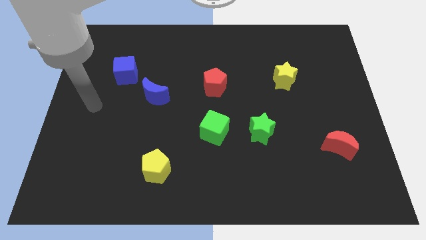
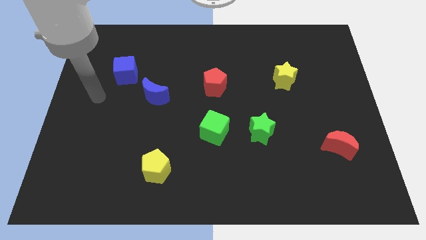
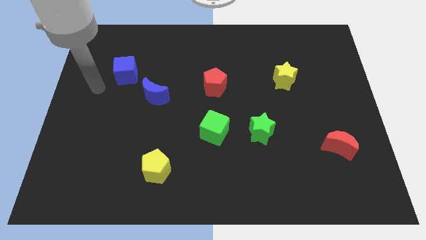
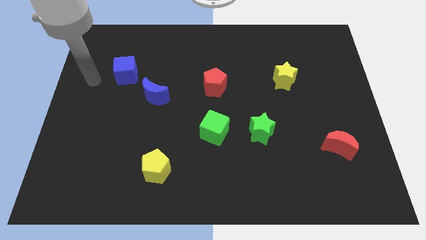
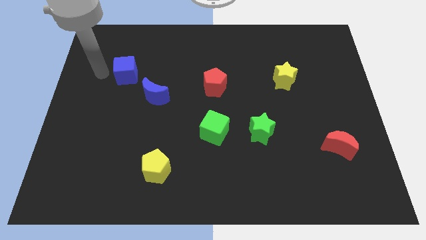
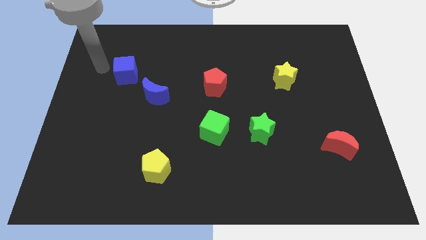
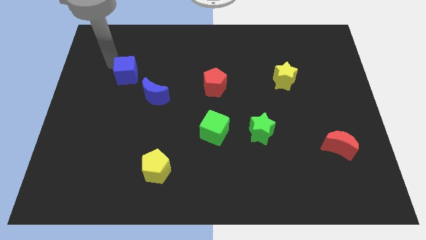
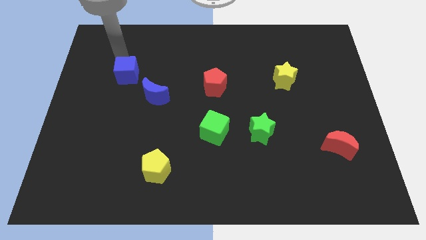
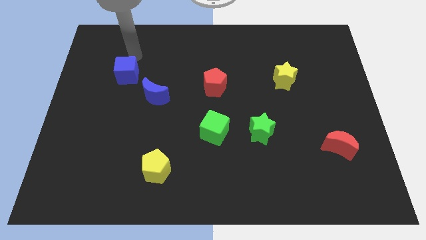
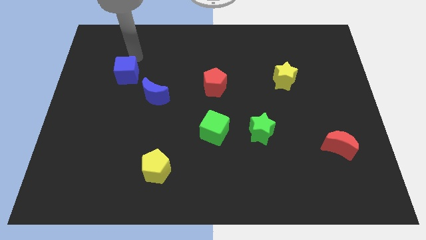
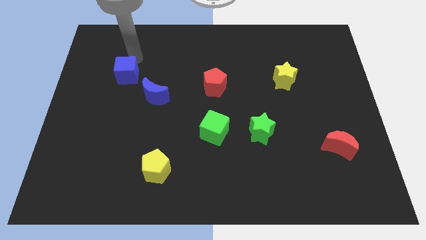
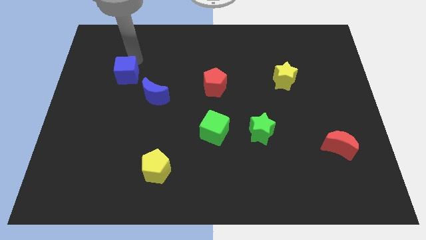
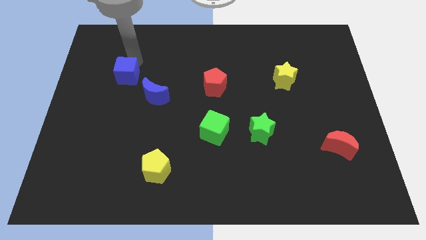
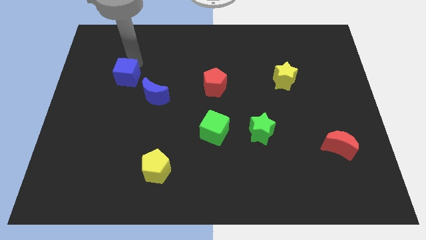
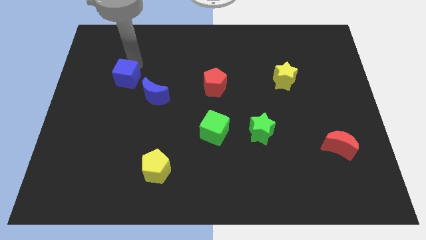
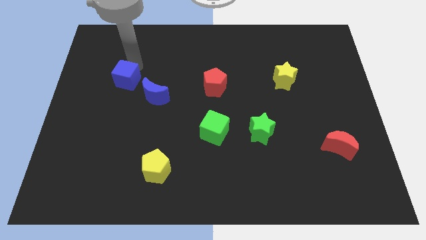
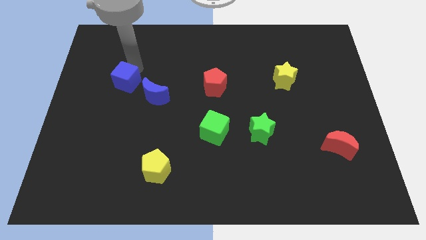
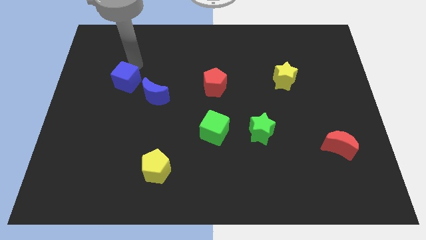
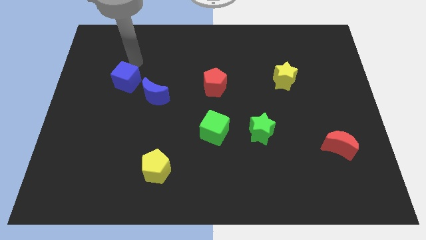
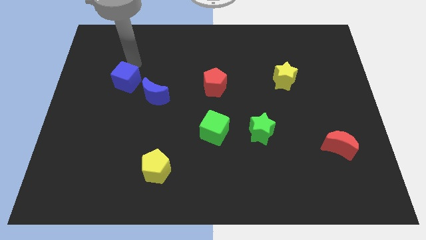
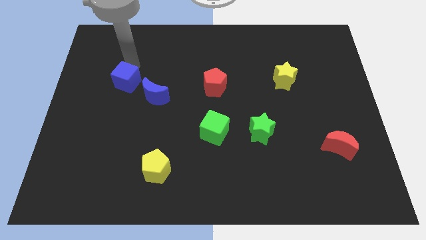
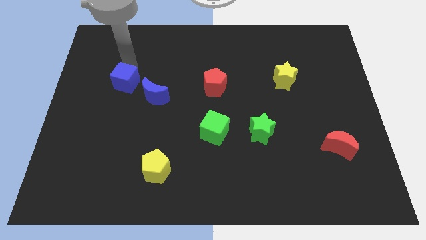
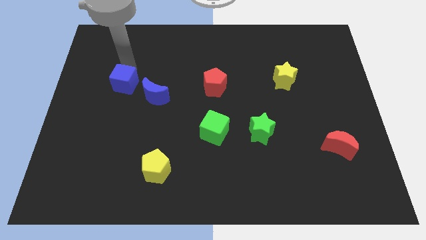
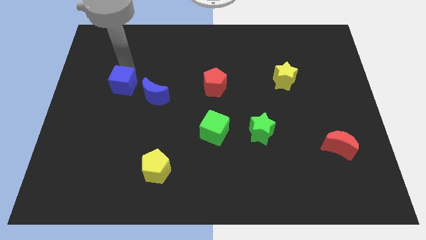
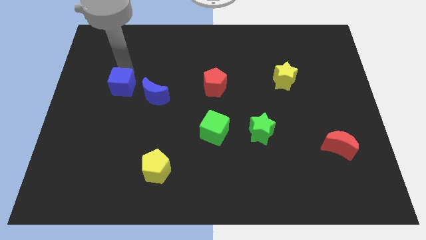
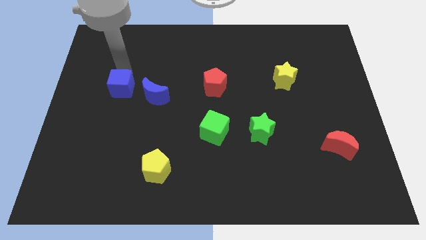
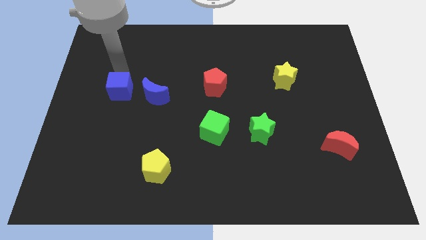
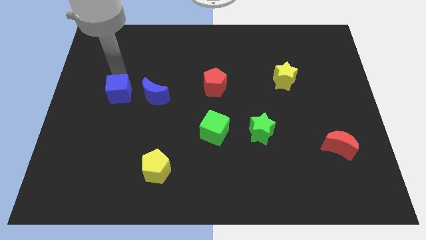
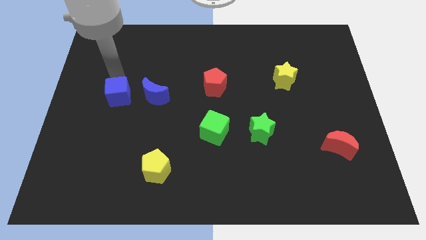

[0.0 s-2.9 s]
slightly push the blue cube downwards

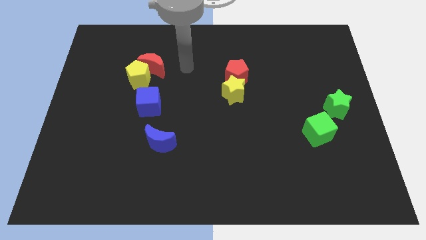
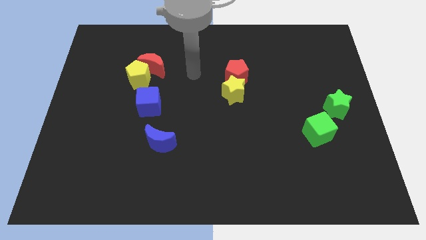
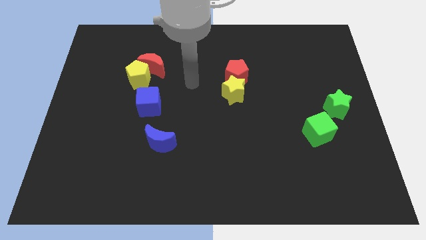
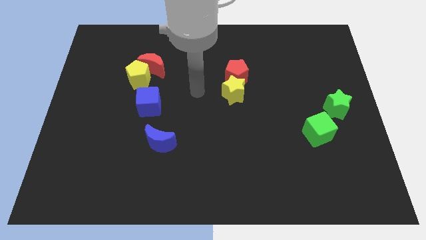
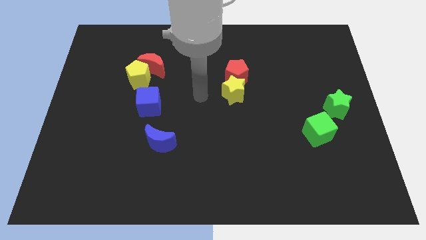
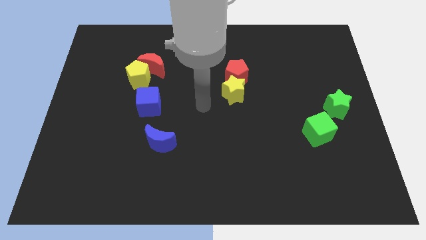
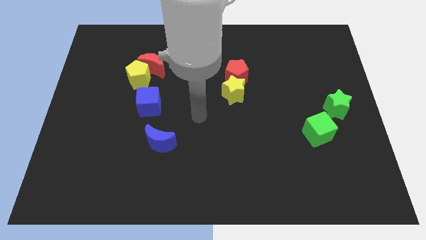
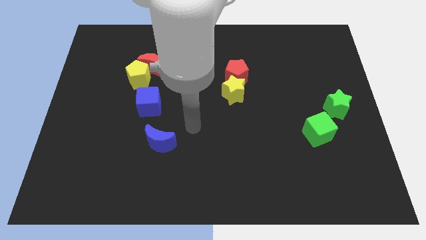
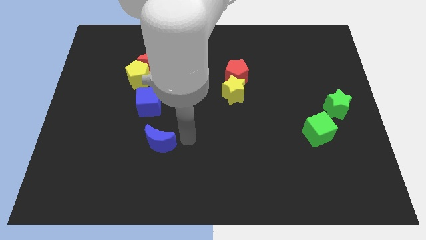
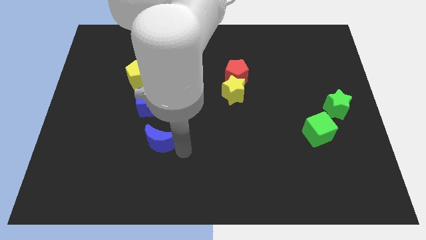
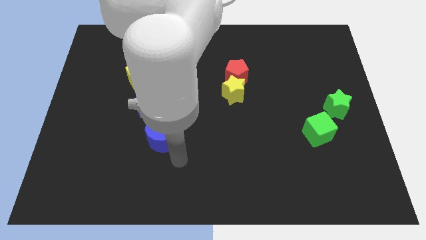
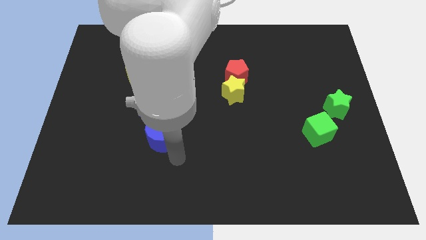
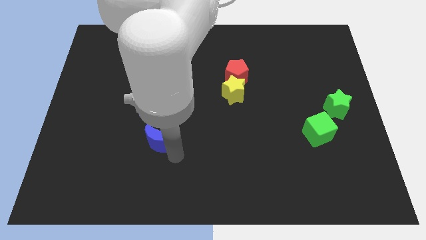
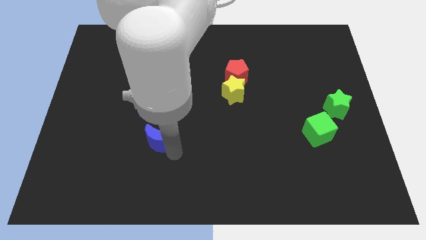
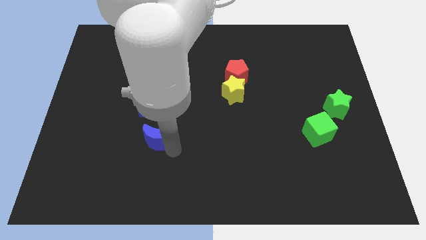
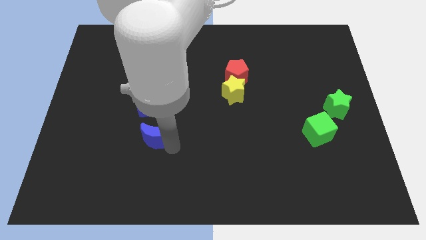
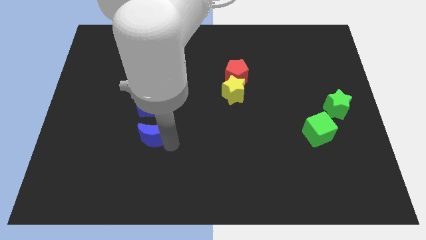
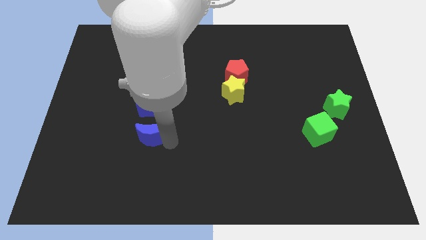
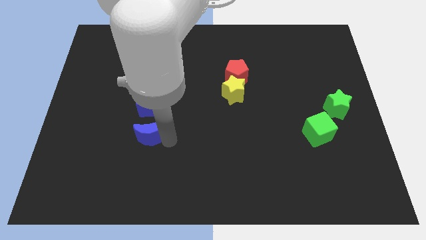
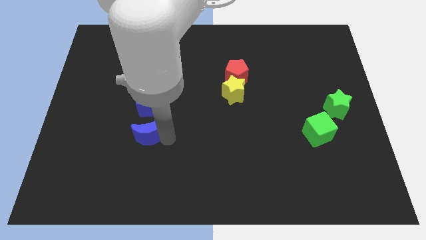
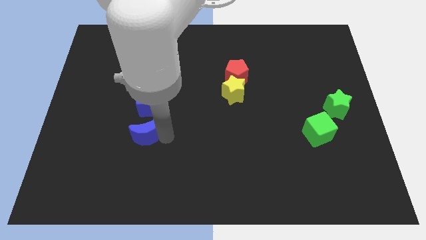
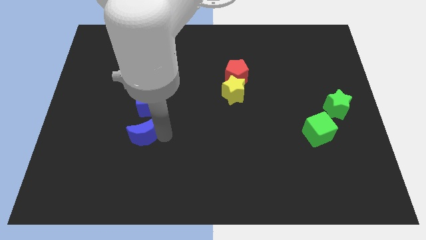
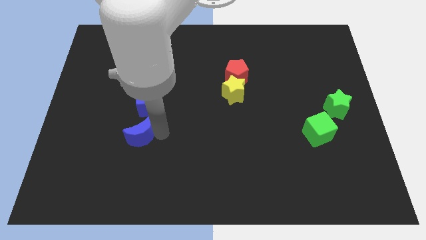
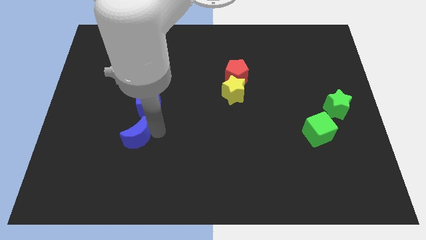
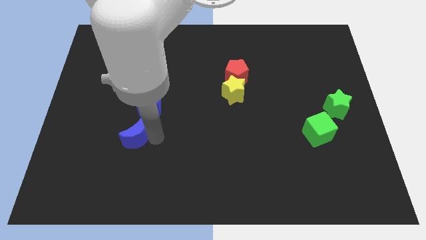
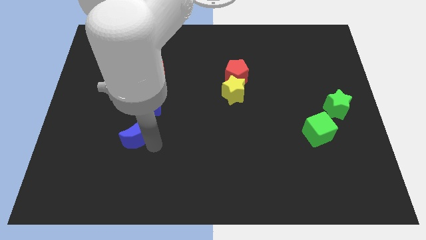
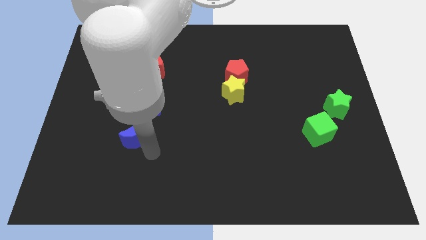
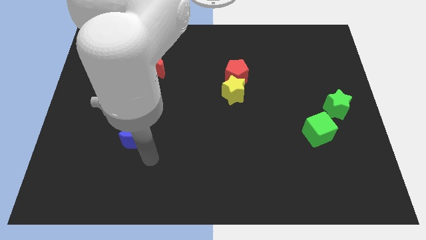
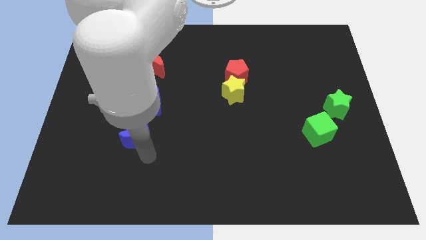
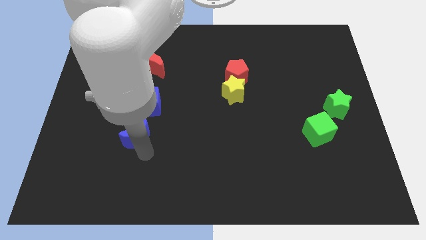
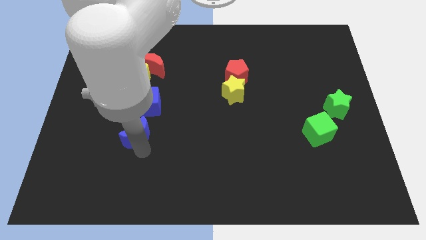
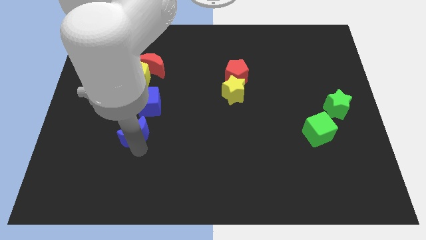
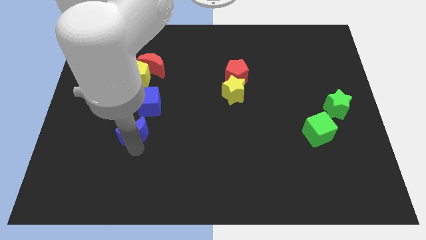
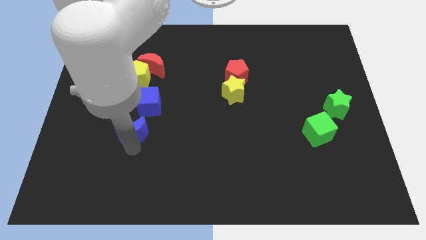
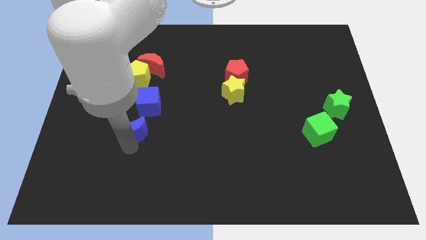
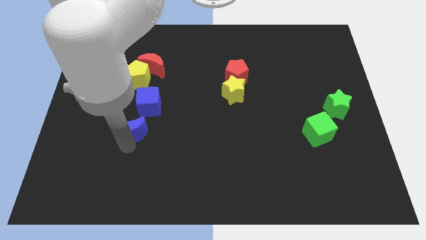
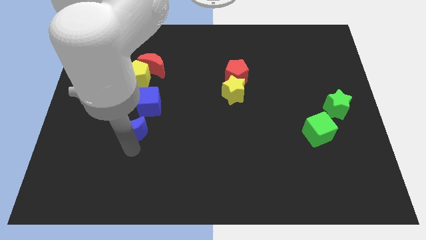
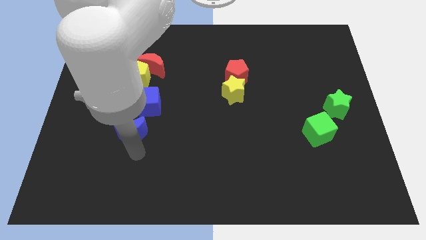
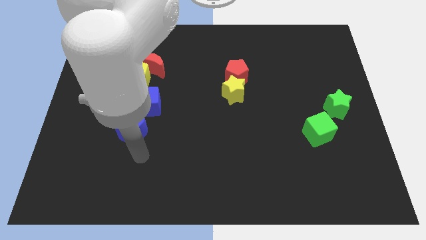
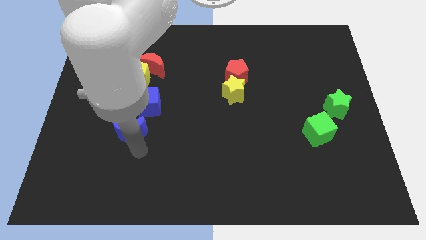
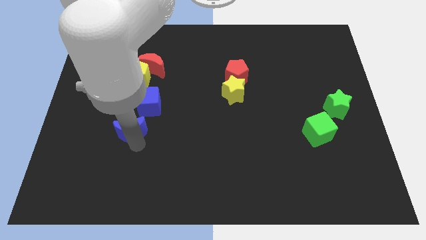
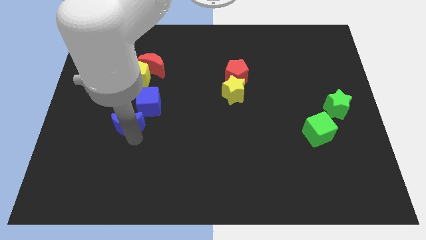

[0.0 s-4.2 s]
move the blue moon up and left a little bit

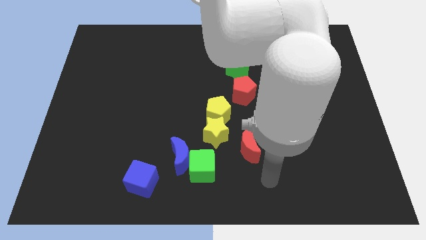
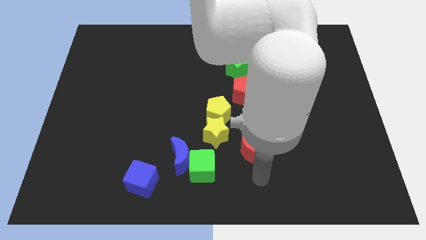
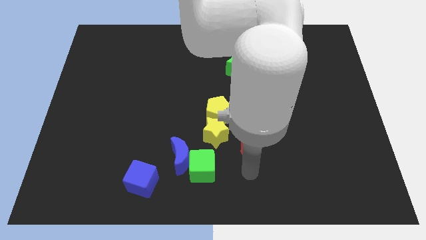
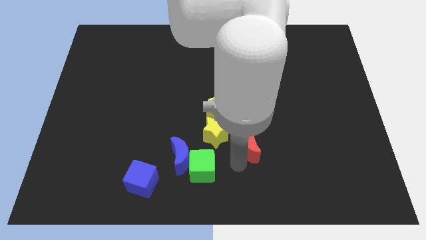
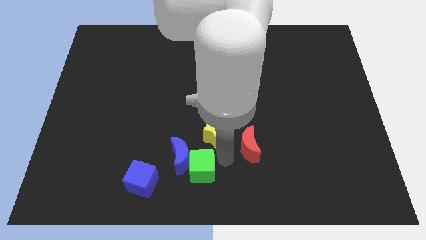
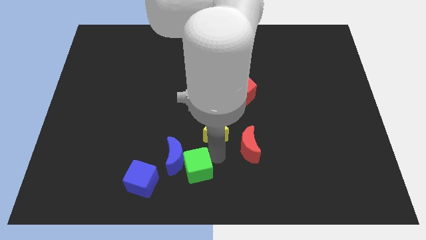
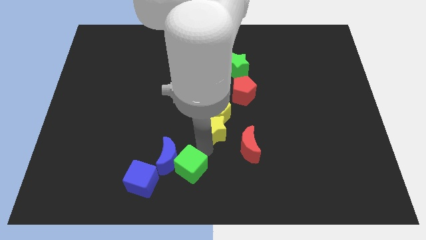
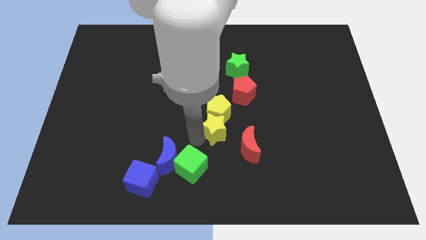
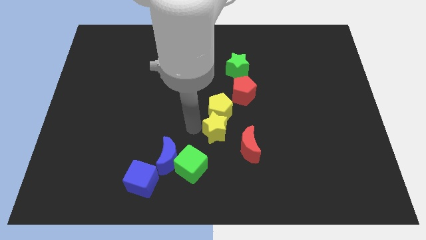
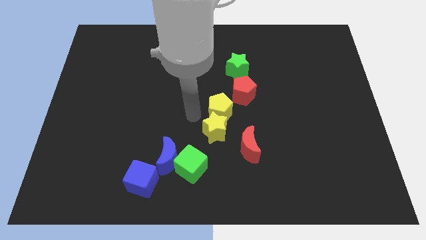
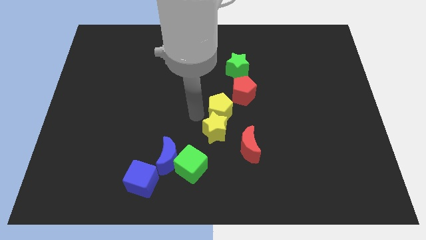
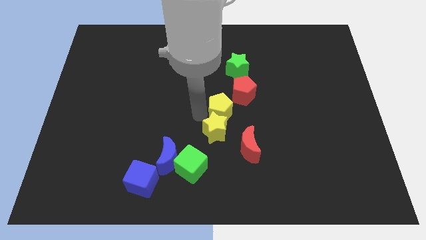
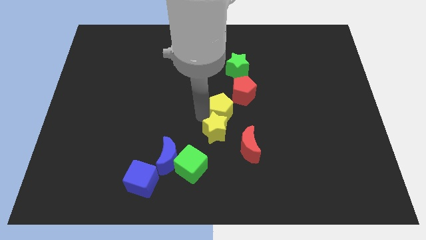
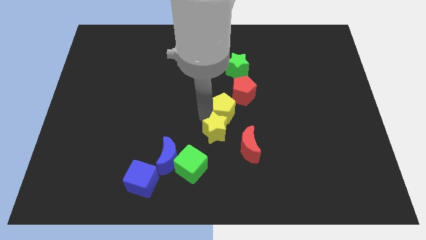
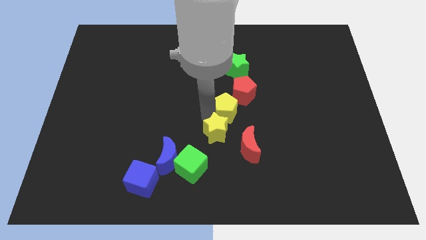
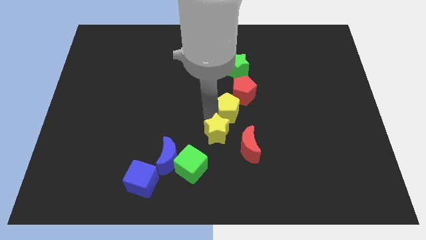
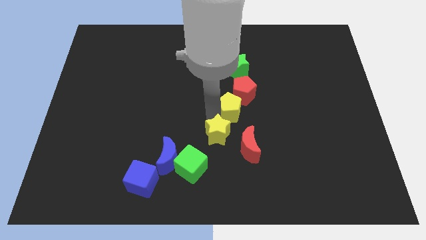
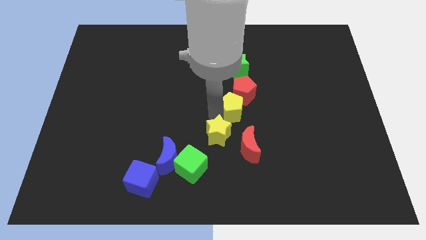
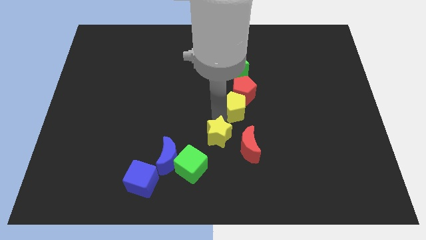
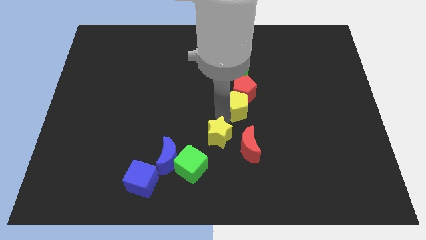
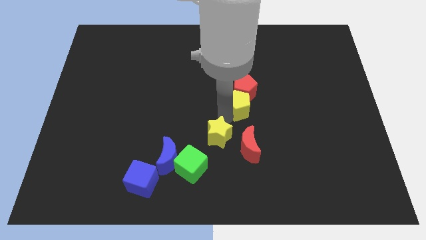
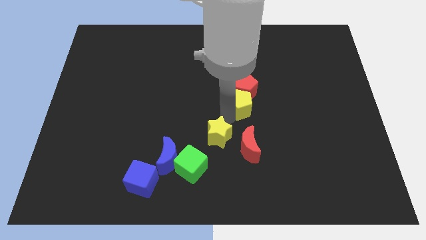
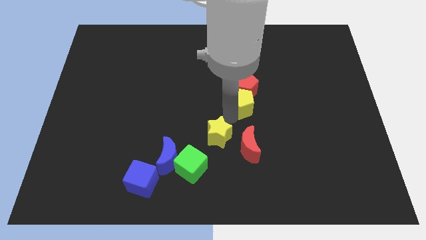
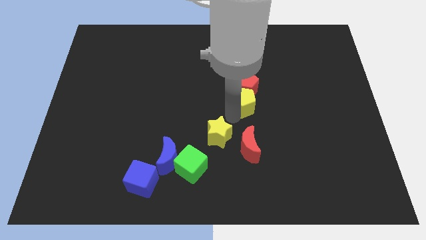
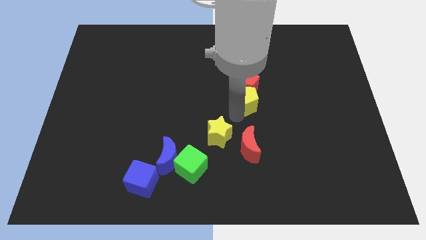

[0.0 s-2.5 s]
slightly push the yellow pentagon diagonally upwards and right
